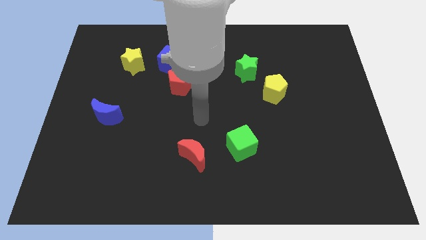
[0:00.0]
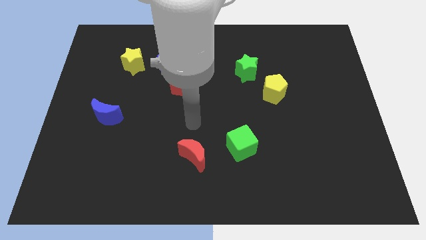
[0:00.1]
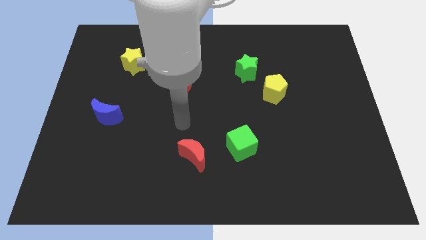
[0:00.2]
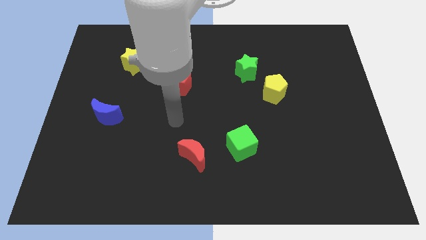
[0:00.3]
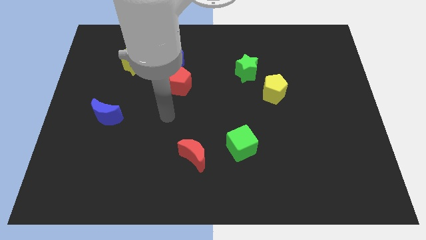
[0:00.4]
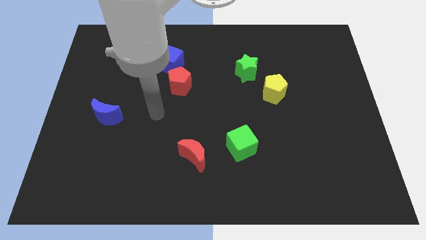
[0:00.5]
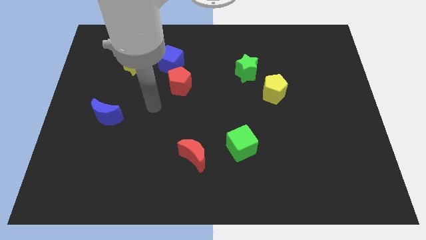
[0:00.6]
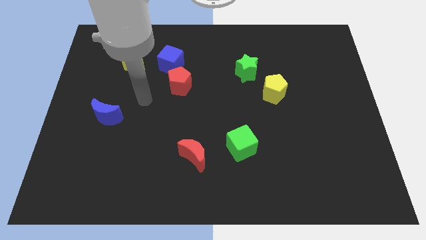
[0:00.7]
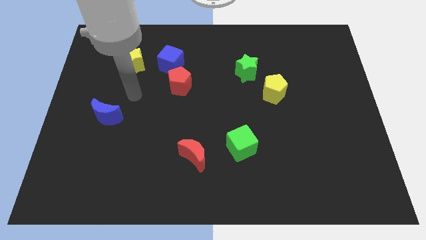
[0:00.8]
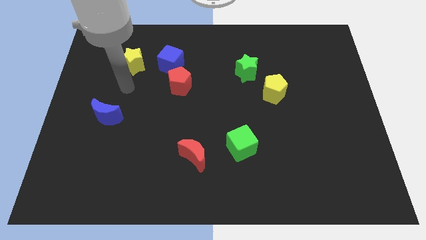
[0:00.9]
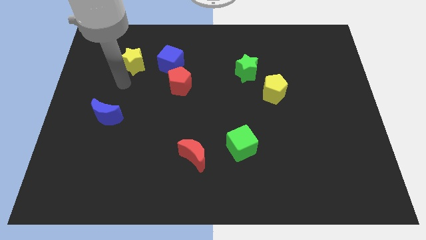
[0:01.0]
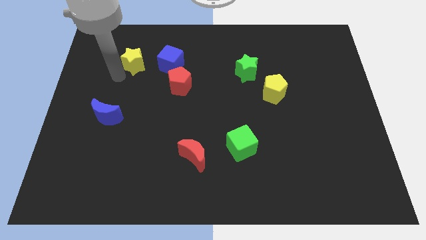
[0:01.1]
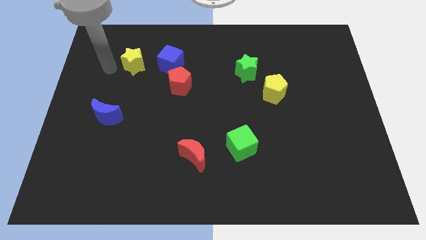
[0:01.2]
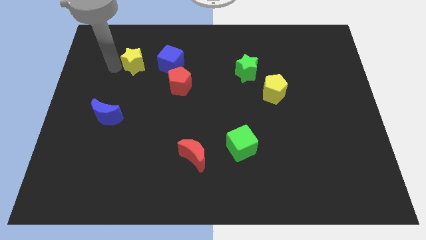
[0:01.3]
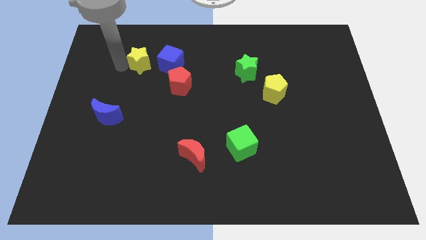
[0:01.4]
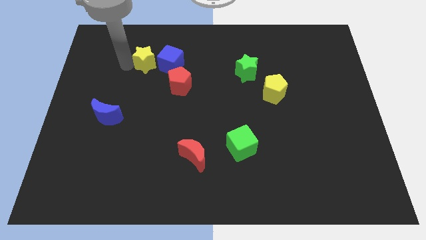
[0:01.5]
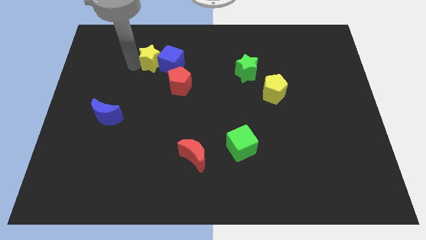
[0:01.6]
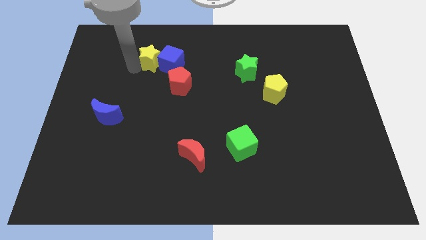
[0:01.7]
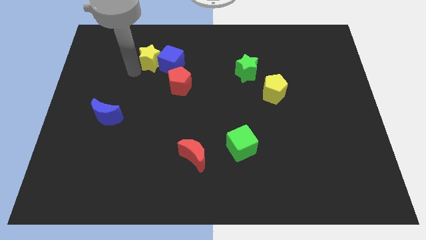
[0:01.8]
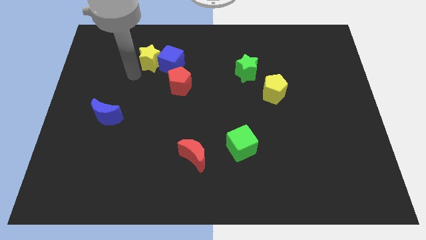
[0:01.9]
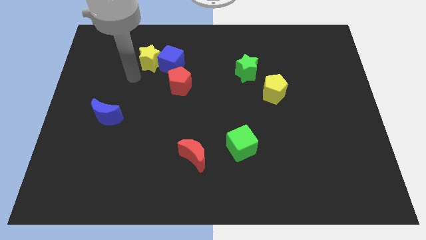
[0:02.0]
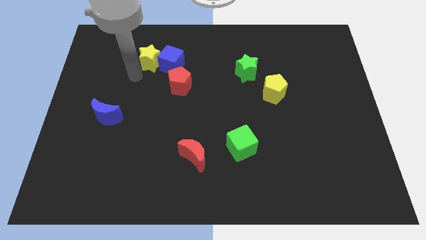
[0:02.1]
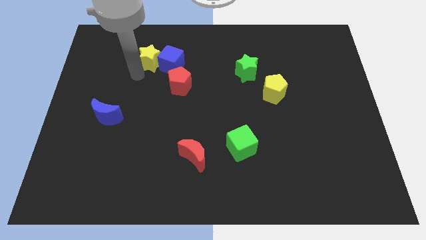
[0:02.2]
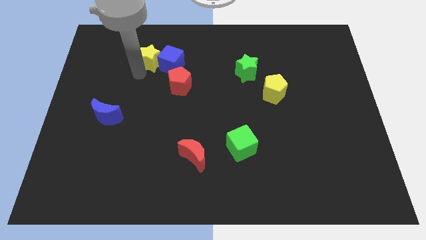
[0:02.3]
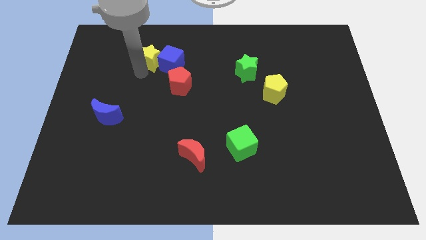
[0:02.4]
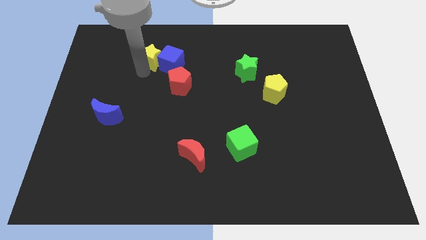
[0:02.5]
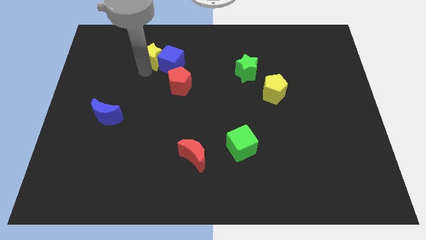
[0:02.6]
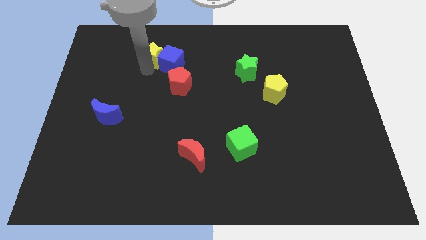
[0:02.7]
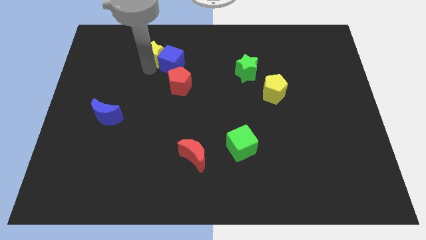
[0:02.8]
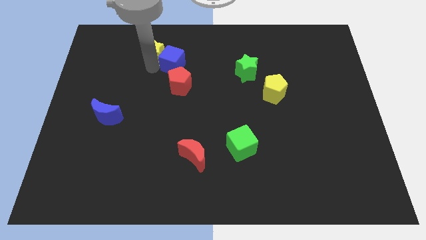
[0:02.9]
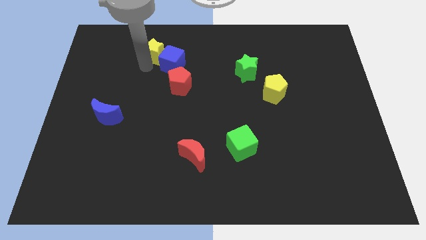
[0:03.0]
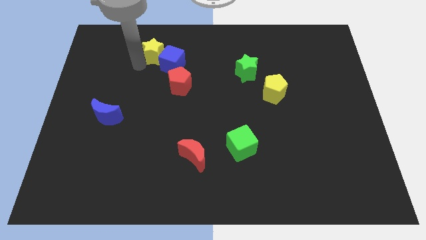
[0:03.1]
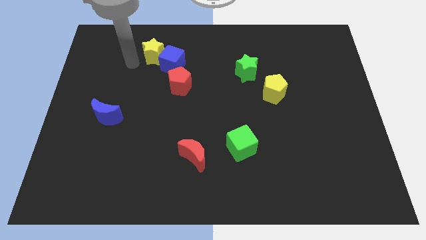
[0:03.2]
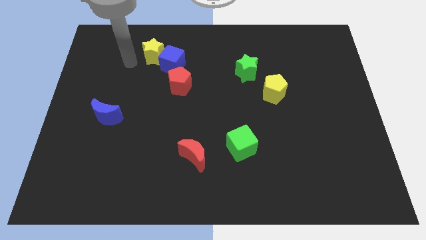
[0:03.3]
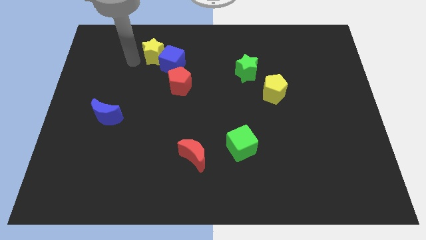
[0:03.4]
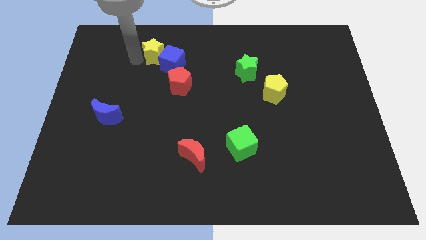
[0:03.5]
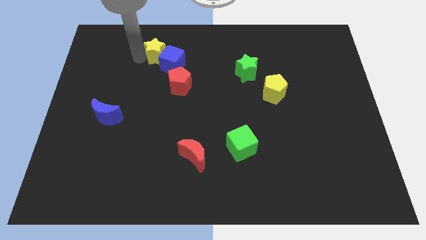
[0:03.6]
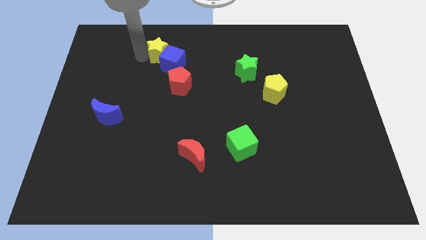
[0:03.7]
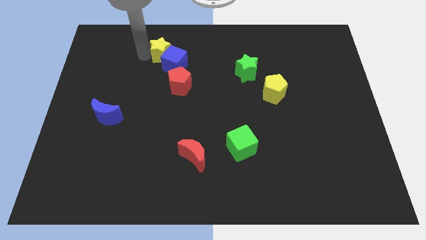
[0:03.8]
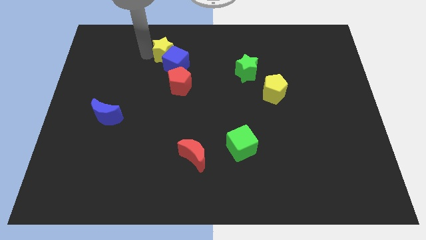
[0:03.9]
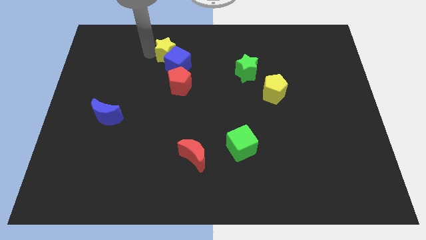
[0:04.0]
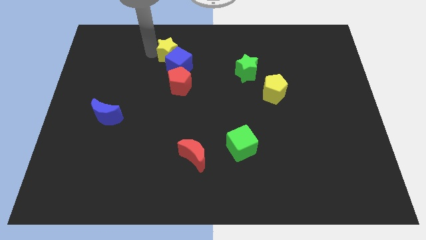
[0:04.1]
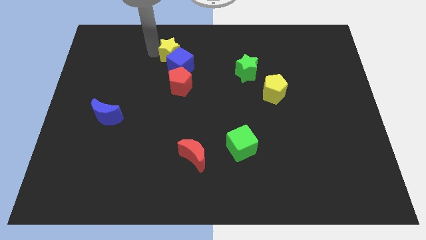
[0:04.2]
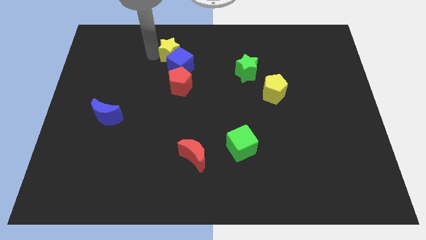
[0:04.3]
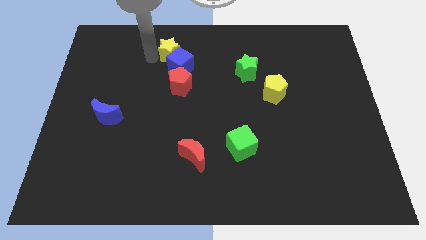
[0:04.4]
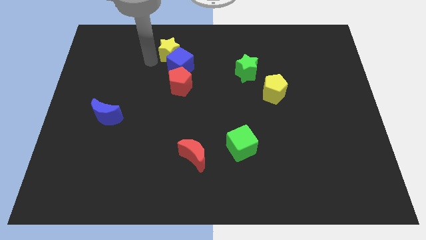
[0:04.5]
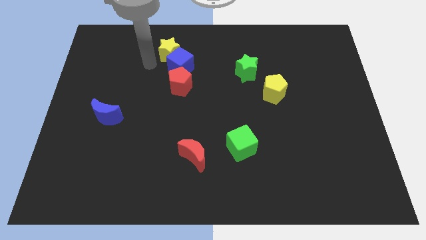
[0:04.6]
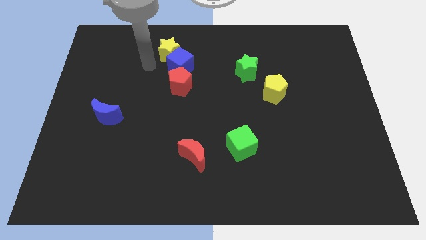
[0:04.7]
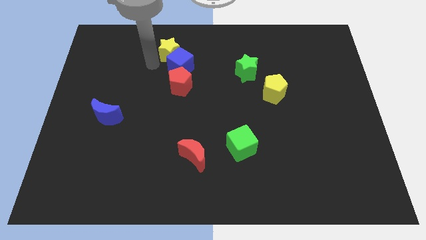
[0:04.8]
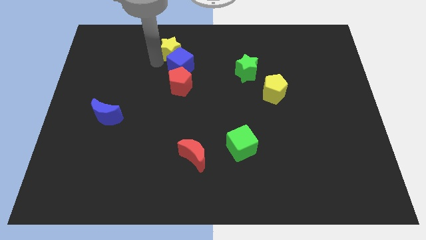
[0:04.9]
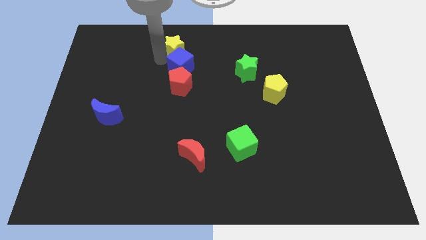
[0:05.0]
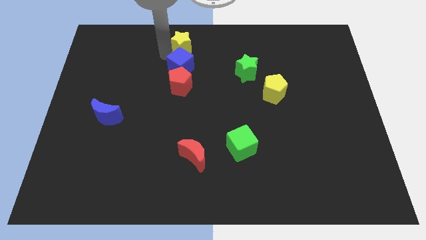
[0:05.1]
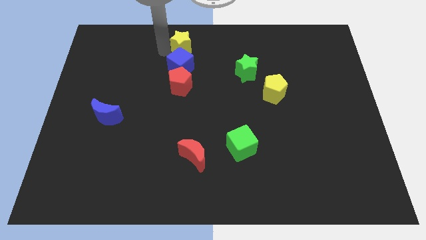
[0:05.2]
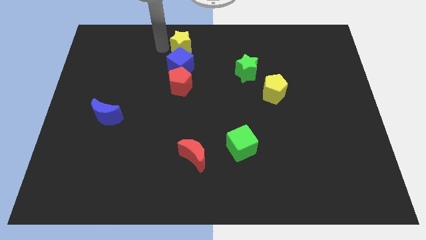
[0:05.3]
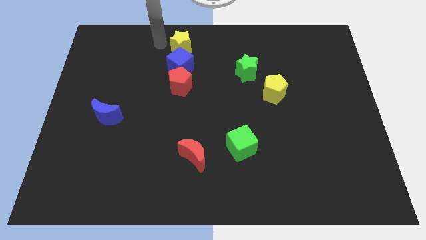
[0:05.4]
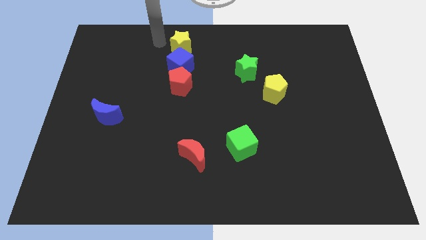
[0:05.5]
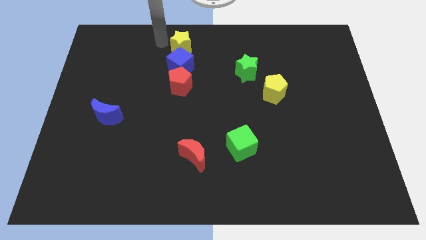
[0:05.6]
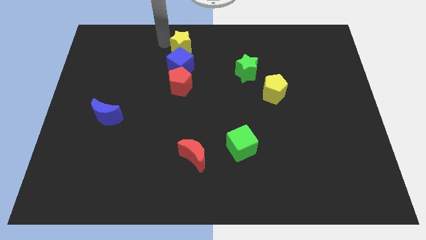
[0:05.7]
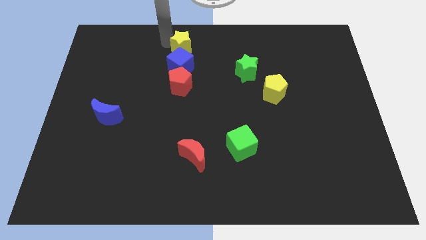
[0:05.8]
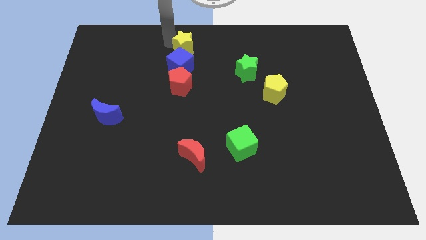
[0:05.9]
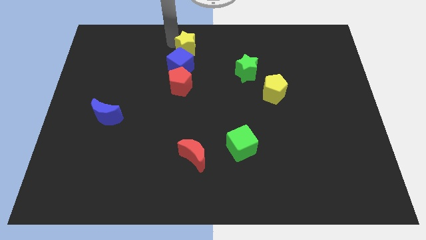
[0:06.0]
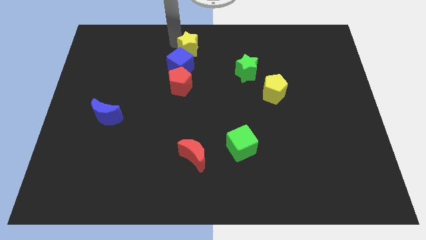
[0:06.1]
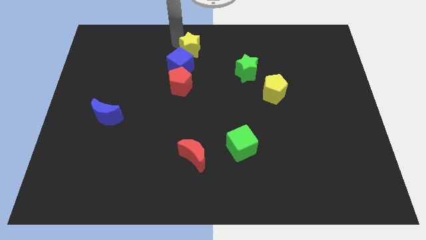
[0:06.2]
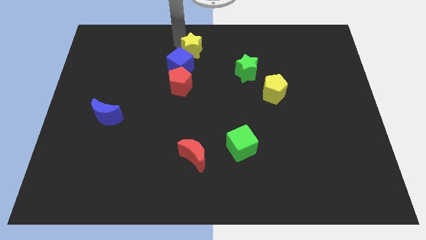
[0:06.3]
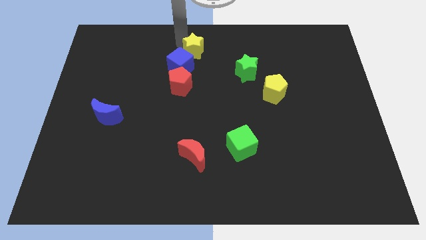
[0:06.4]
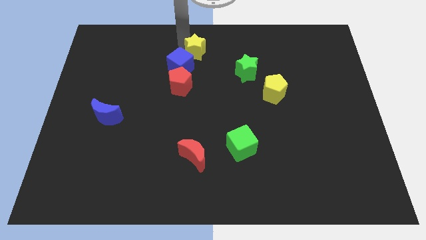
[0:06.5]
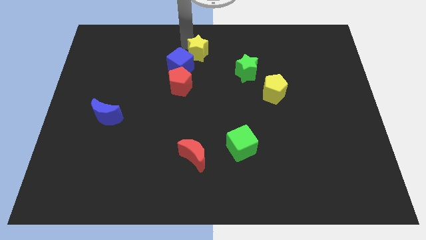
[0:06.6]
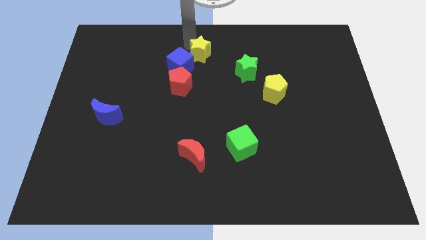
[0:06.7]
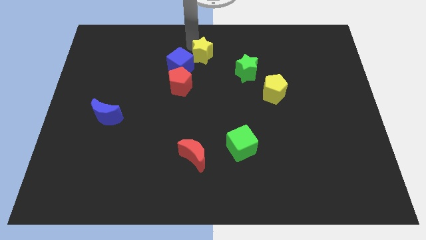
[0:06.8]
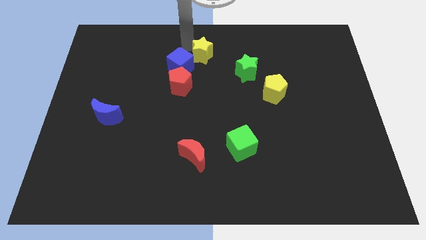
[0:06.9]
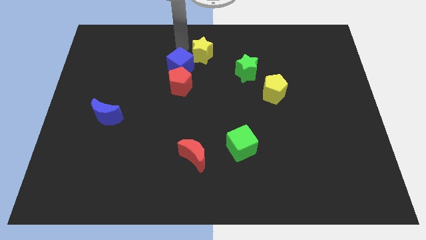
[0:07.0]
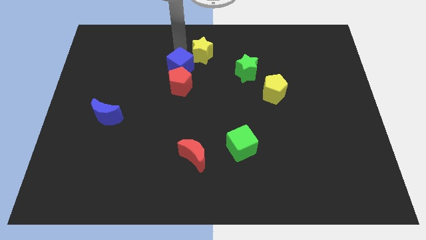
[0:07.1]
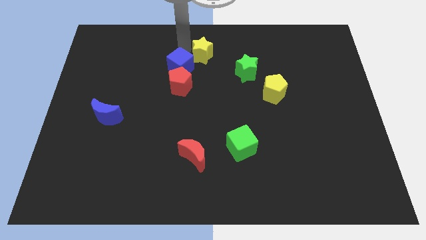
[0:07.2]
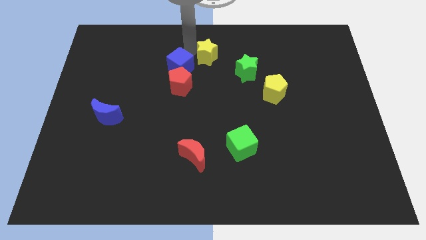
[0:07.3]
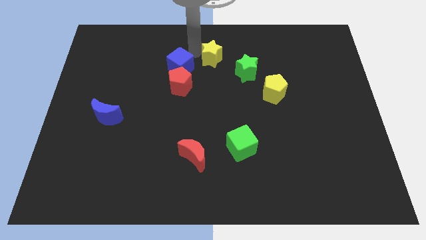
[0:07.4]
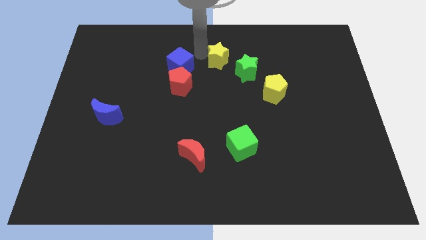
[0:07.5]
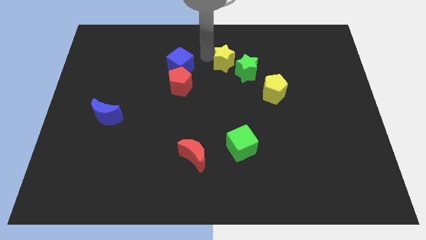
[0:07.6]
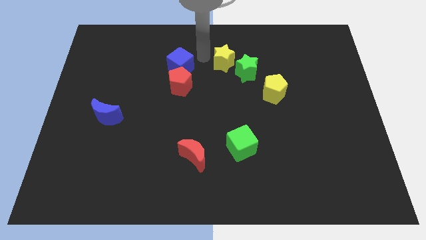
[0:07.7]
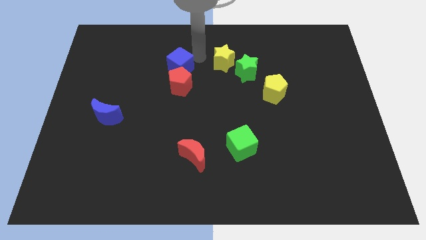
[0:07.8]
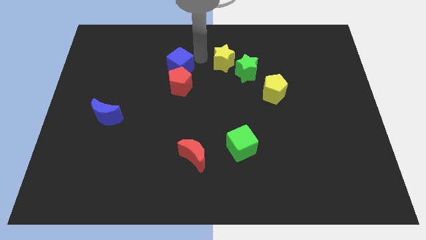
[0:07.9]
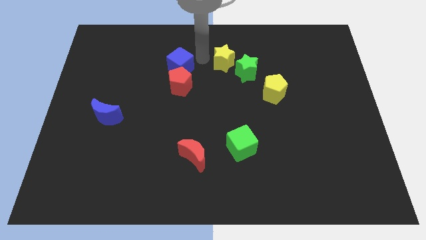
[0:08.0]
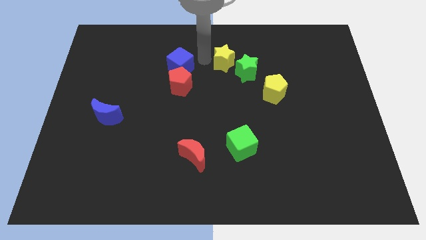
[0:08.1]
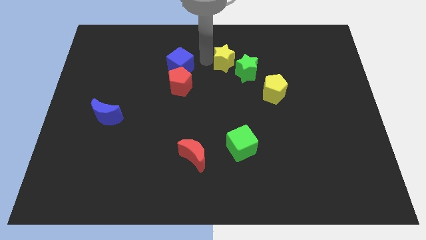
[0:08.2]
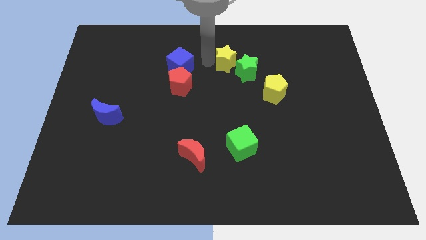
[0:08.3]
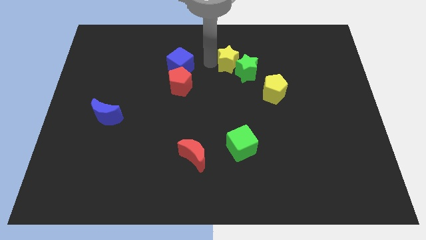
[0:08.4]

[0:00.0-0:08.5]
put the yellow star to the green star
